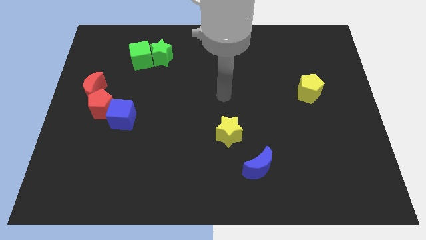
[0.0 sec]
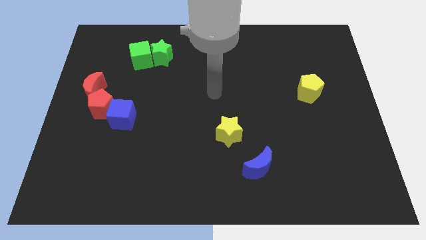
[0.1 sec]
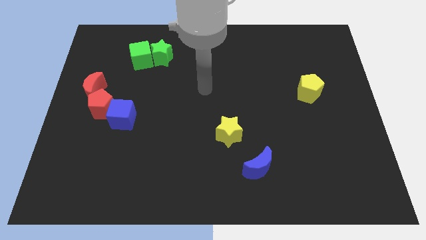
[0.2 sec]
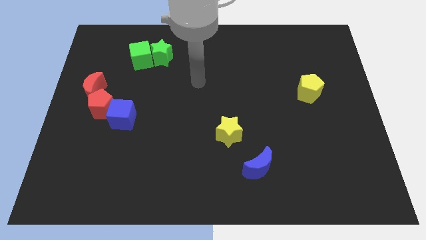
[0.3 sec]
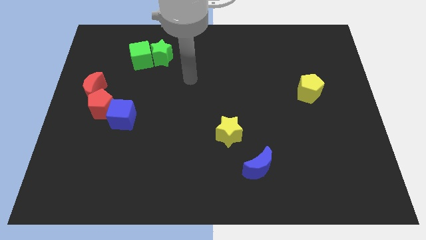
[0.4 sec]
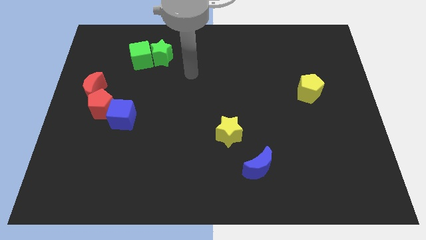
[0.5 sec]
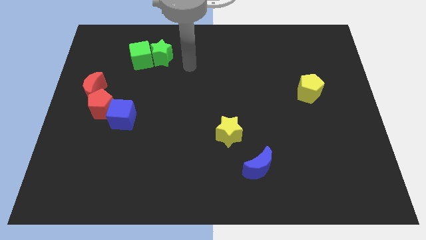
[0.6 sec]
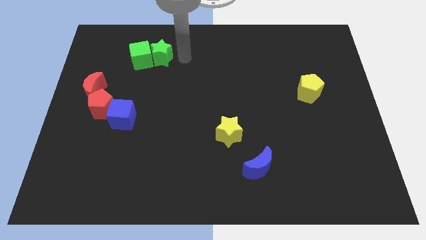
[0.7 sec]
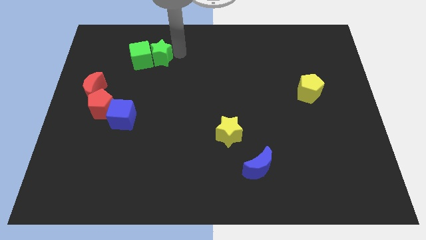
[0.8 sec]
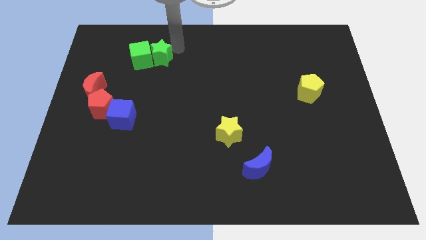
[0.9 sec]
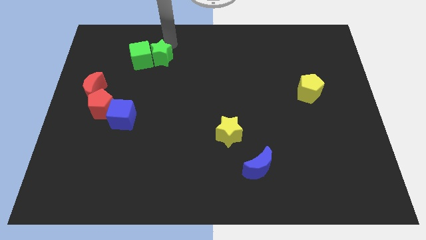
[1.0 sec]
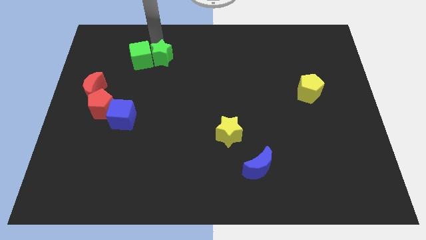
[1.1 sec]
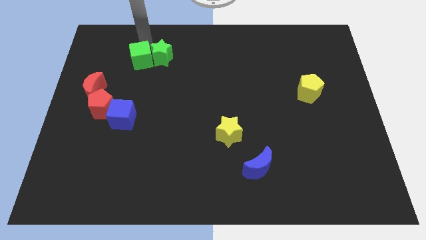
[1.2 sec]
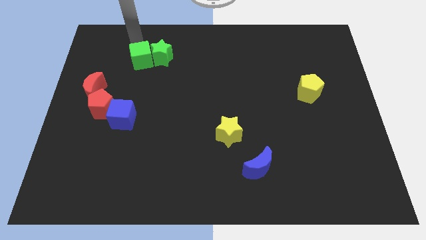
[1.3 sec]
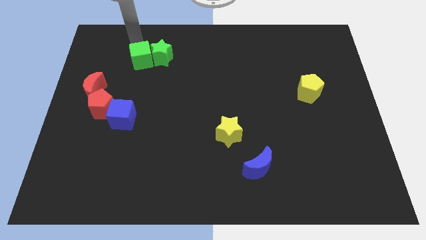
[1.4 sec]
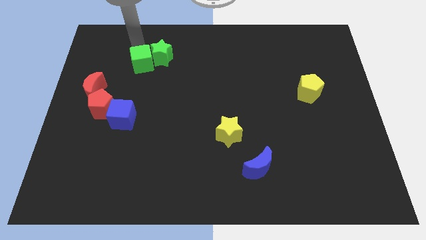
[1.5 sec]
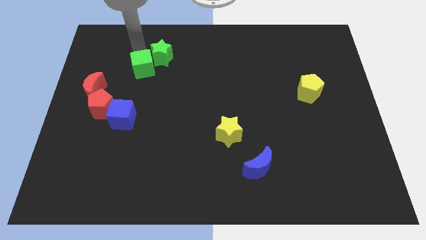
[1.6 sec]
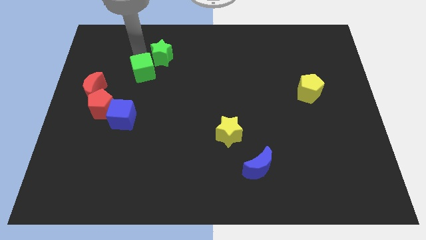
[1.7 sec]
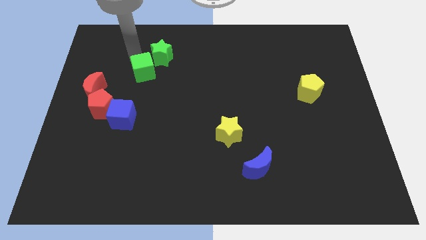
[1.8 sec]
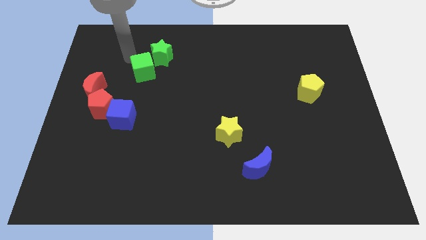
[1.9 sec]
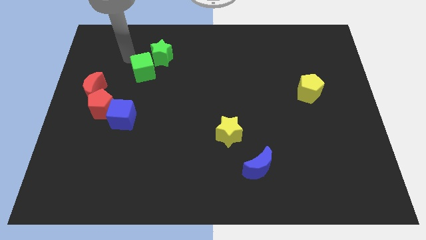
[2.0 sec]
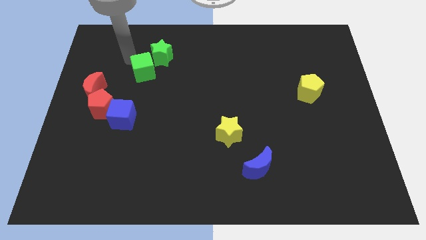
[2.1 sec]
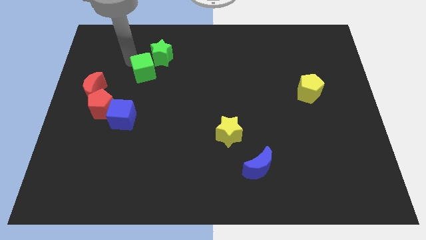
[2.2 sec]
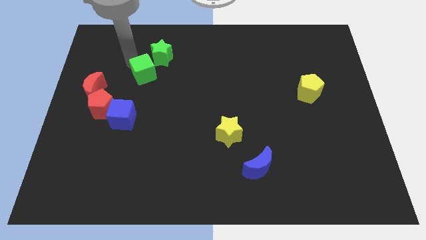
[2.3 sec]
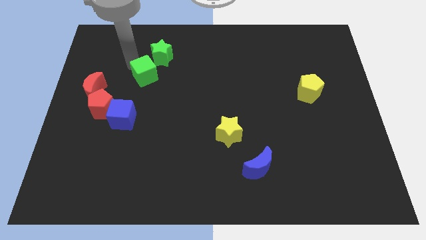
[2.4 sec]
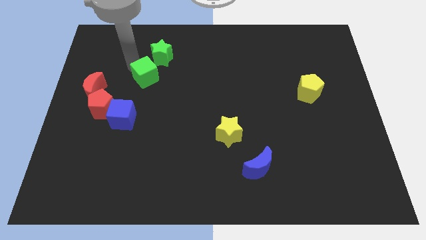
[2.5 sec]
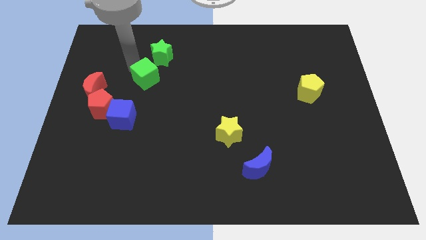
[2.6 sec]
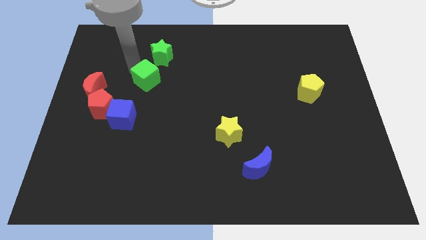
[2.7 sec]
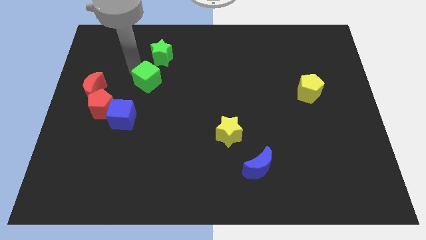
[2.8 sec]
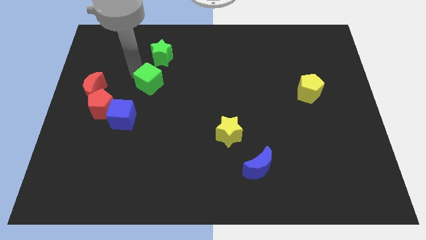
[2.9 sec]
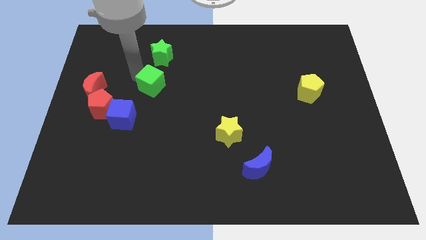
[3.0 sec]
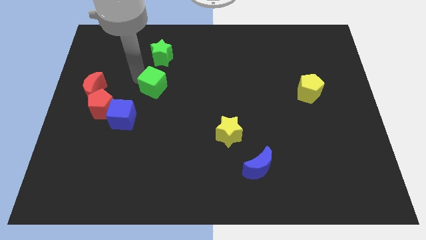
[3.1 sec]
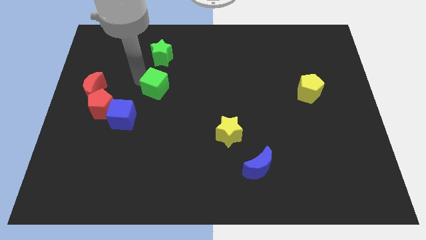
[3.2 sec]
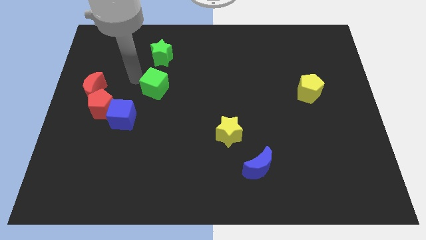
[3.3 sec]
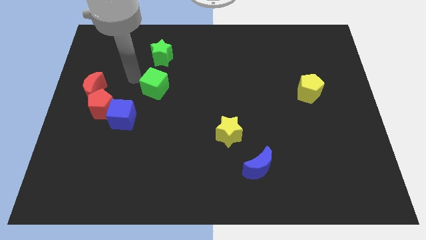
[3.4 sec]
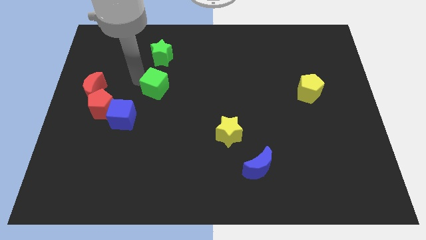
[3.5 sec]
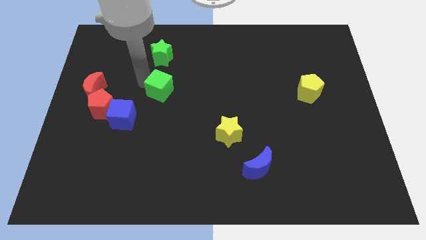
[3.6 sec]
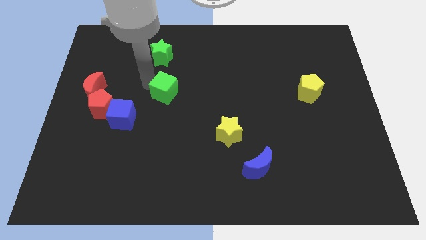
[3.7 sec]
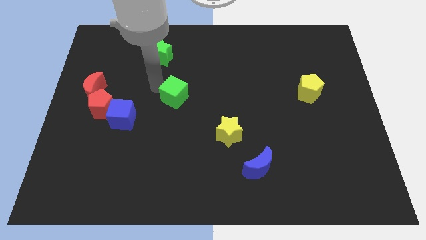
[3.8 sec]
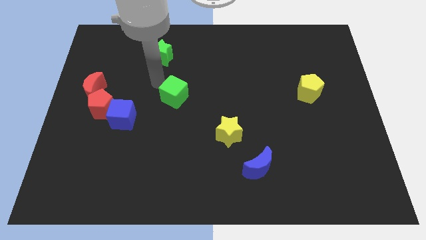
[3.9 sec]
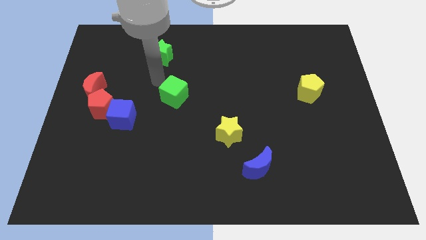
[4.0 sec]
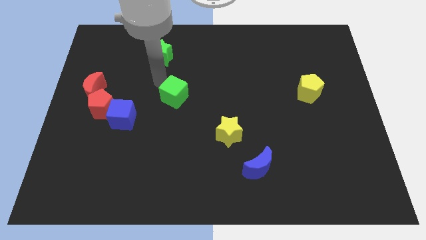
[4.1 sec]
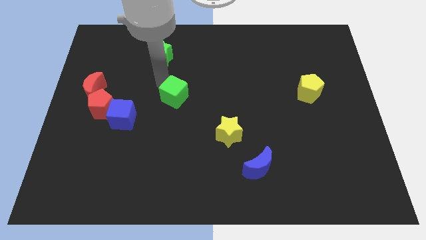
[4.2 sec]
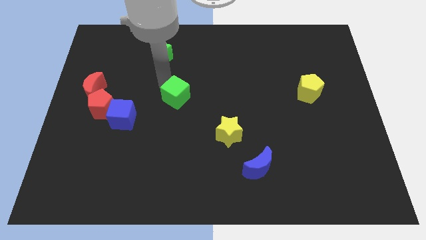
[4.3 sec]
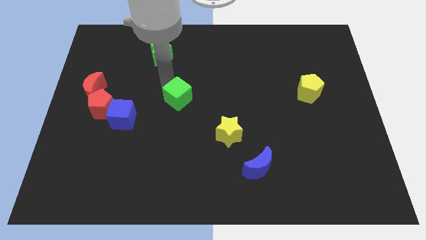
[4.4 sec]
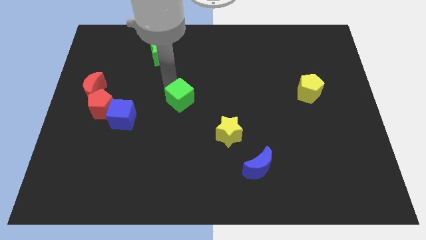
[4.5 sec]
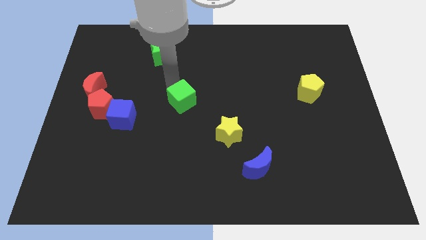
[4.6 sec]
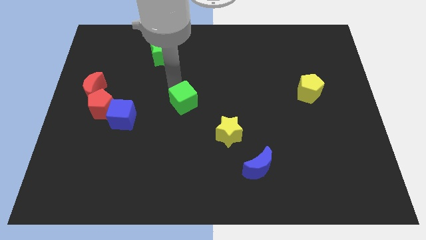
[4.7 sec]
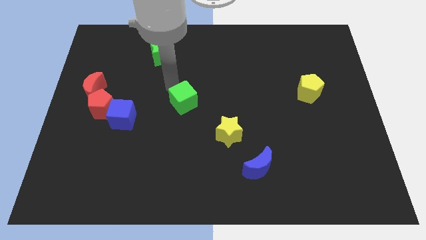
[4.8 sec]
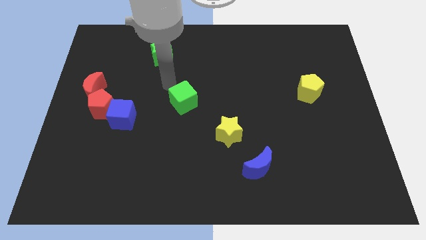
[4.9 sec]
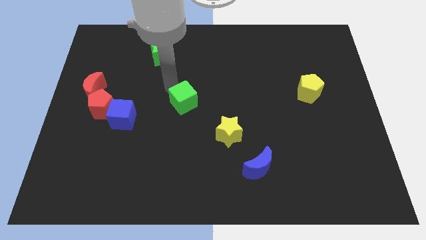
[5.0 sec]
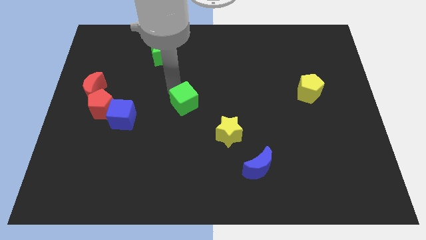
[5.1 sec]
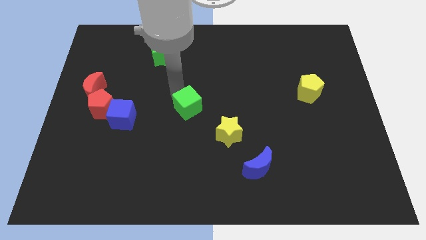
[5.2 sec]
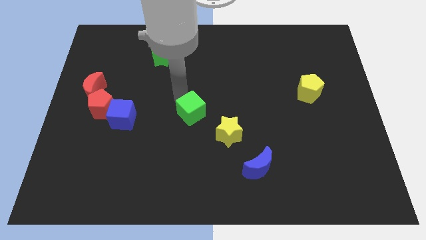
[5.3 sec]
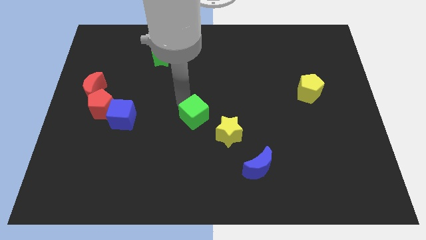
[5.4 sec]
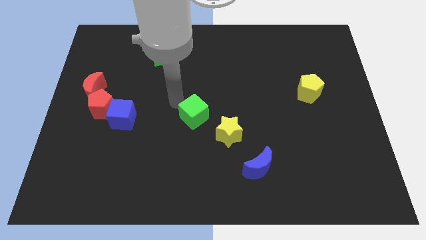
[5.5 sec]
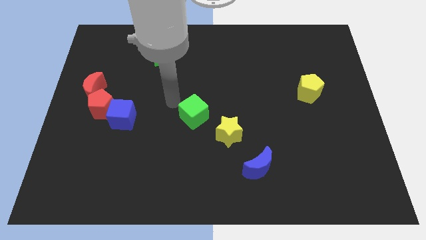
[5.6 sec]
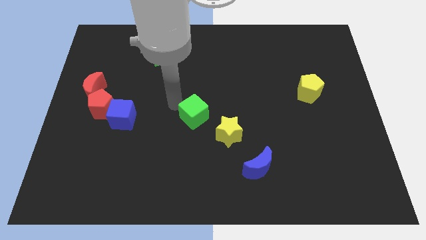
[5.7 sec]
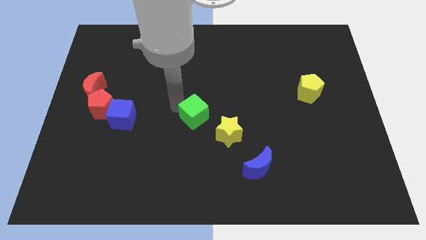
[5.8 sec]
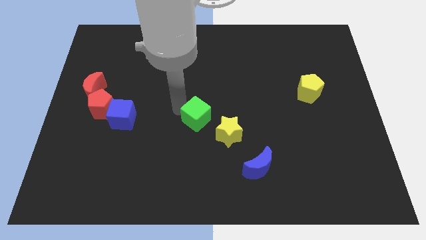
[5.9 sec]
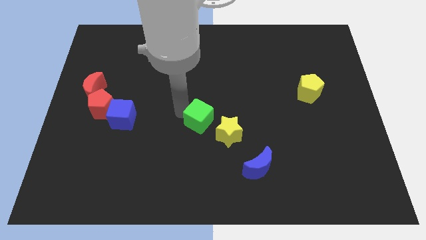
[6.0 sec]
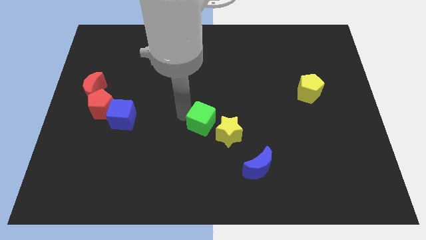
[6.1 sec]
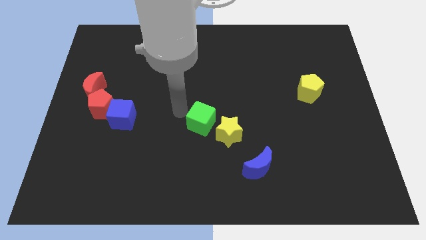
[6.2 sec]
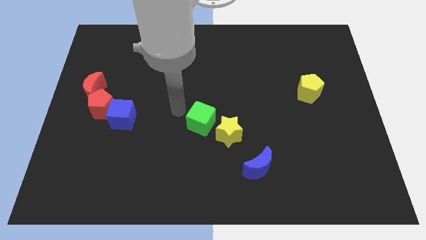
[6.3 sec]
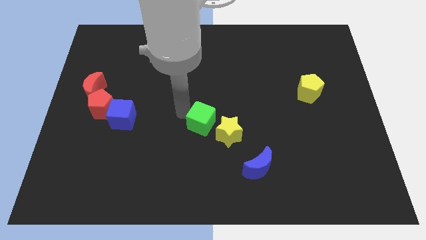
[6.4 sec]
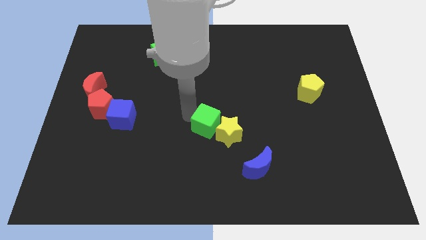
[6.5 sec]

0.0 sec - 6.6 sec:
put the green cube to the yellow star

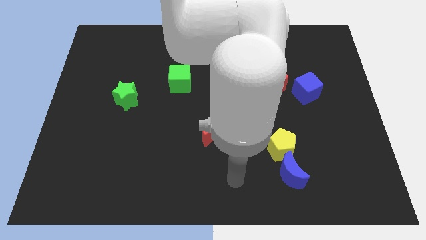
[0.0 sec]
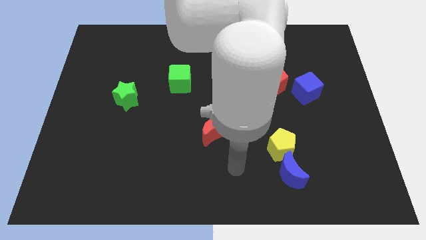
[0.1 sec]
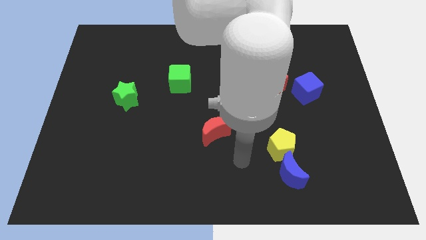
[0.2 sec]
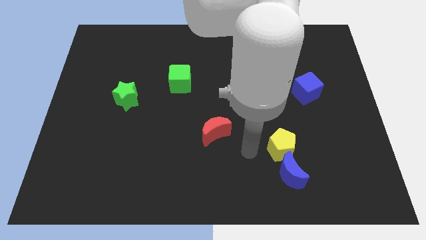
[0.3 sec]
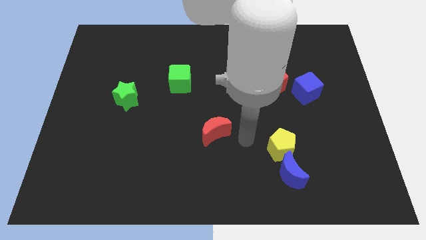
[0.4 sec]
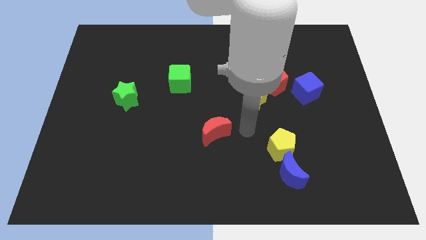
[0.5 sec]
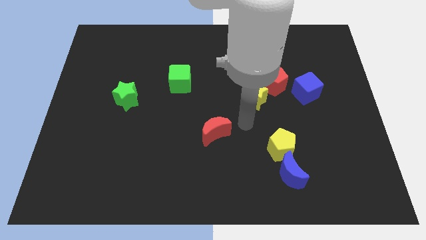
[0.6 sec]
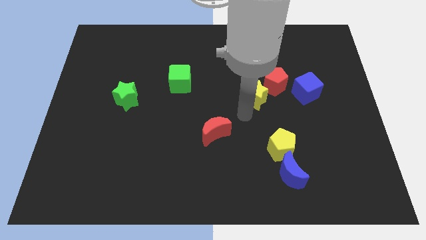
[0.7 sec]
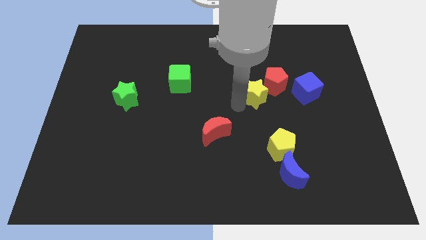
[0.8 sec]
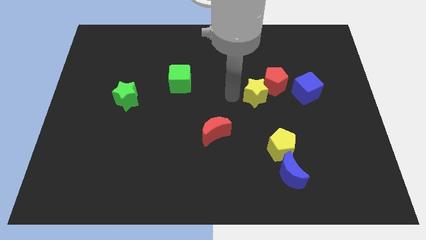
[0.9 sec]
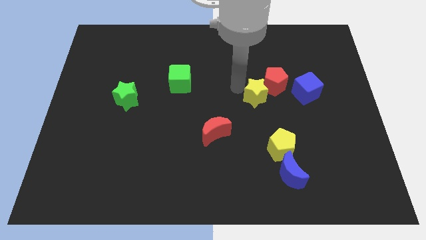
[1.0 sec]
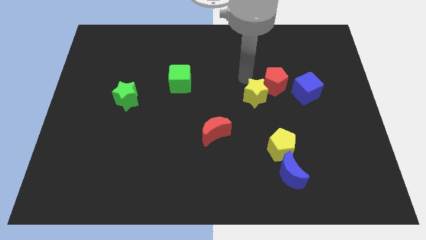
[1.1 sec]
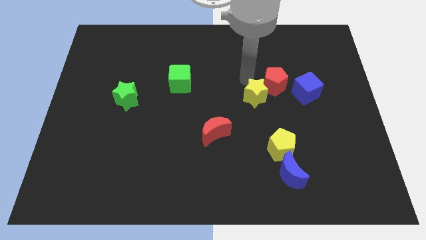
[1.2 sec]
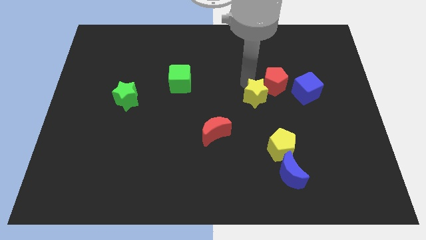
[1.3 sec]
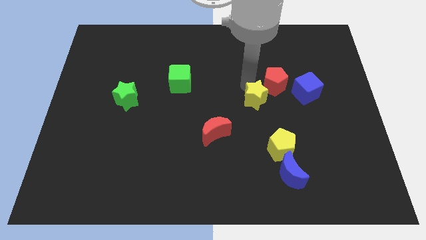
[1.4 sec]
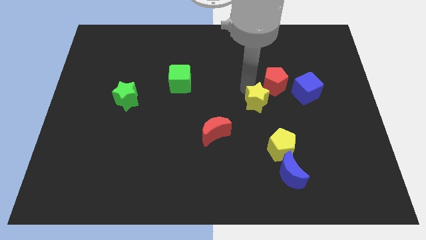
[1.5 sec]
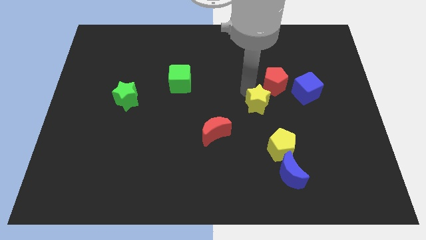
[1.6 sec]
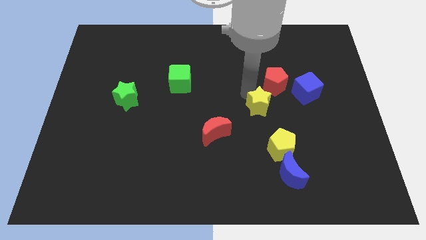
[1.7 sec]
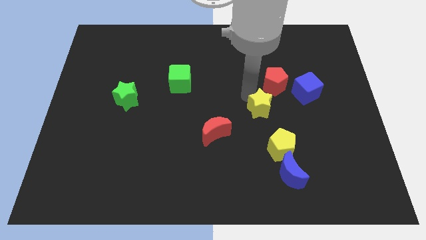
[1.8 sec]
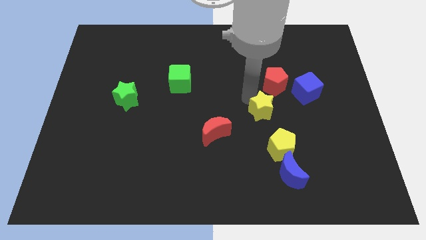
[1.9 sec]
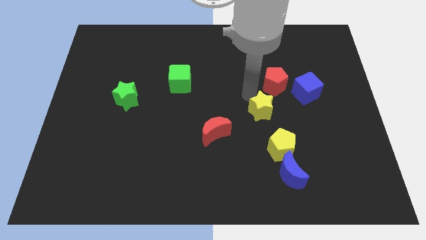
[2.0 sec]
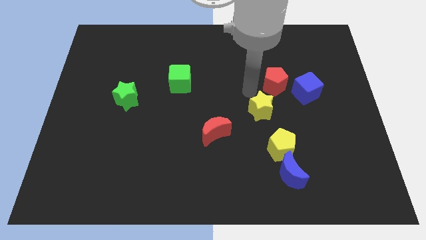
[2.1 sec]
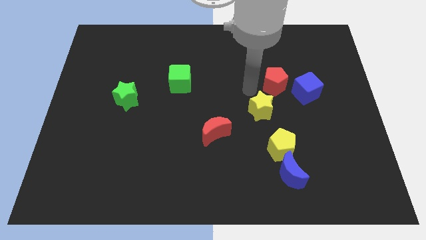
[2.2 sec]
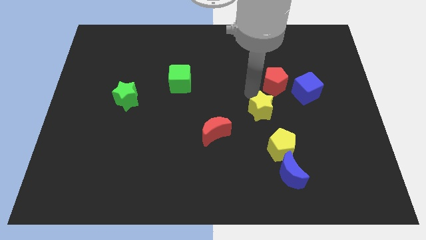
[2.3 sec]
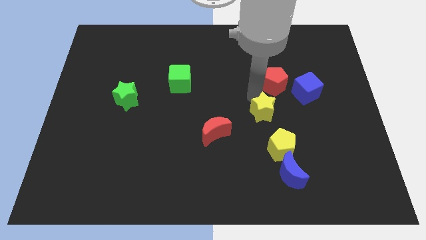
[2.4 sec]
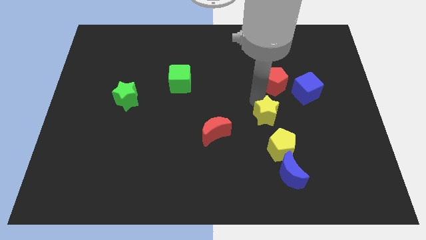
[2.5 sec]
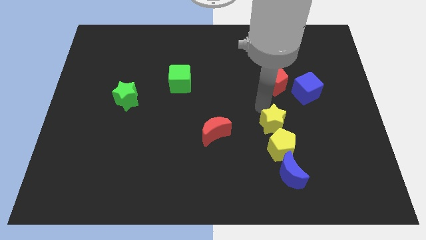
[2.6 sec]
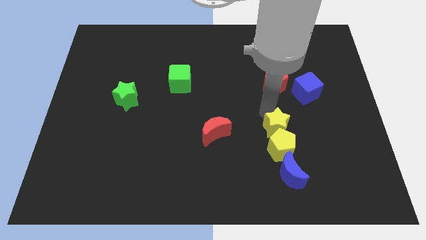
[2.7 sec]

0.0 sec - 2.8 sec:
slide the yellow star next to the yellow pentagon
